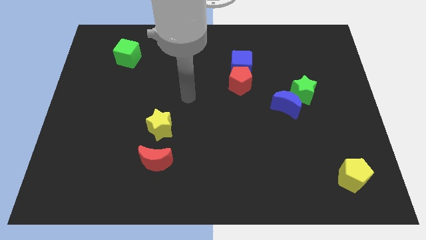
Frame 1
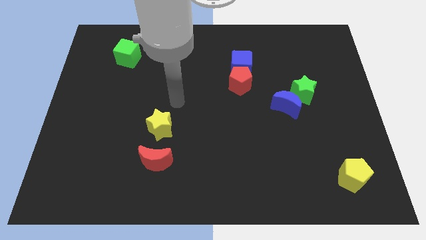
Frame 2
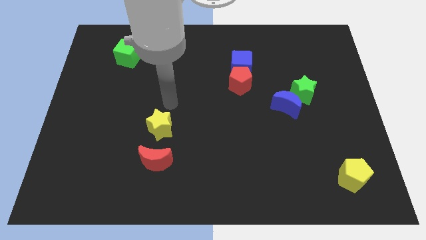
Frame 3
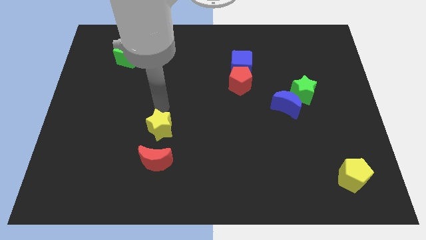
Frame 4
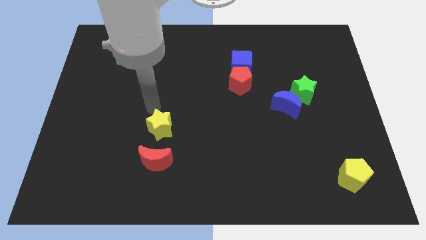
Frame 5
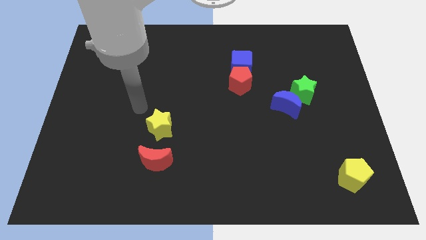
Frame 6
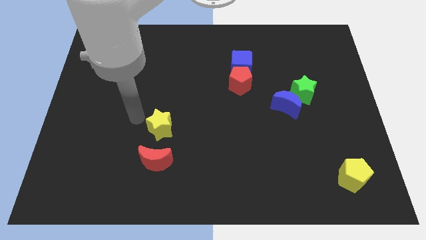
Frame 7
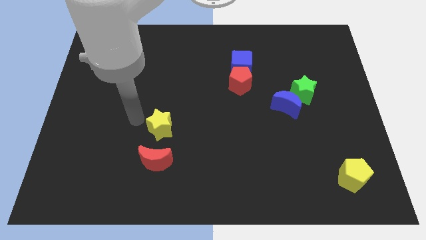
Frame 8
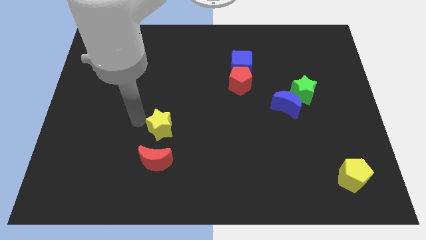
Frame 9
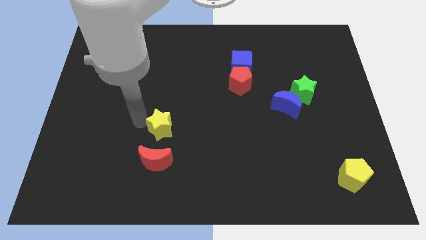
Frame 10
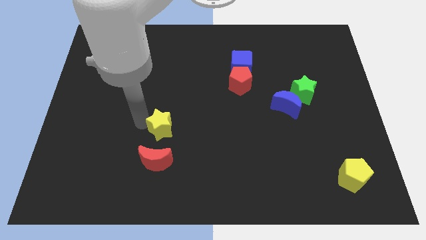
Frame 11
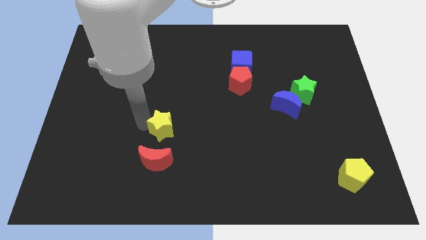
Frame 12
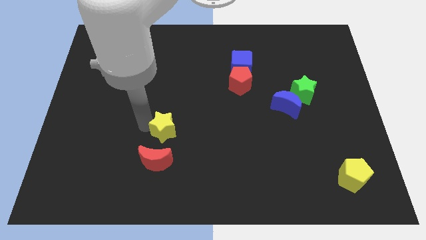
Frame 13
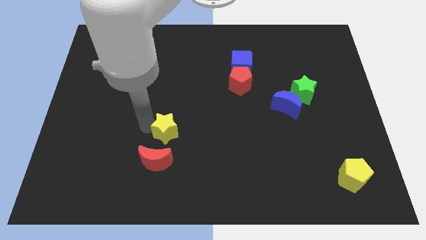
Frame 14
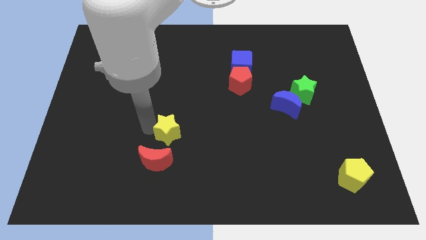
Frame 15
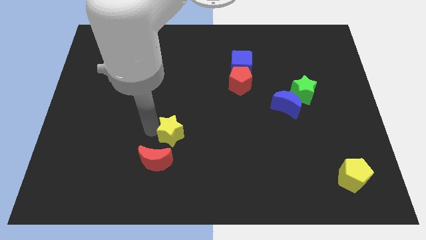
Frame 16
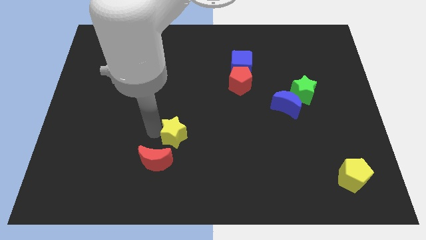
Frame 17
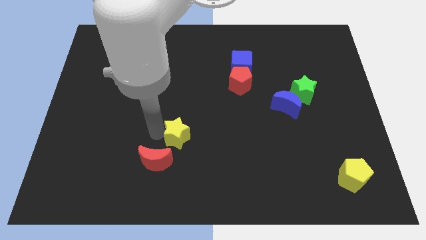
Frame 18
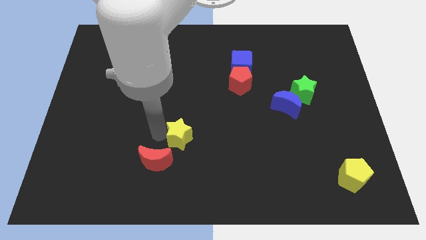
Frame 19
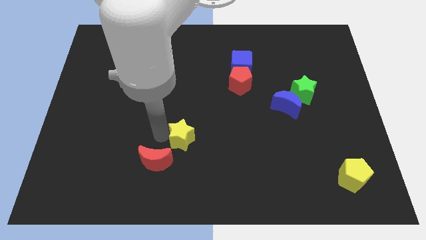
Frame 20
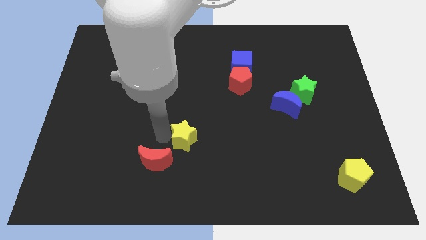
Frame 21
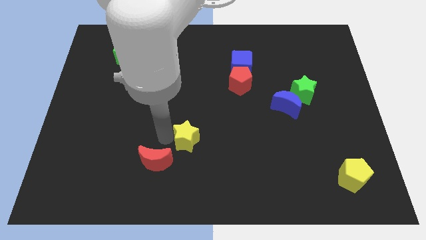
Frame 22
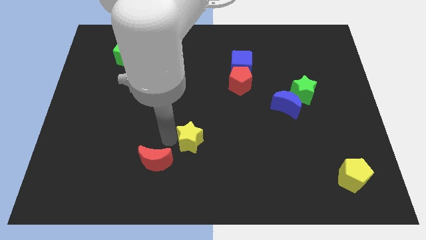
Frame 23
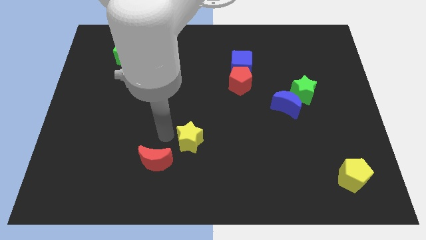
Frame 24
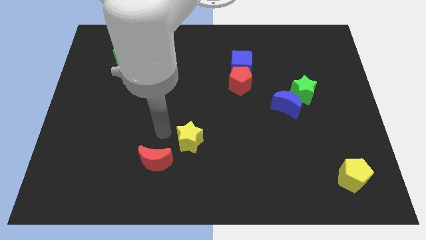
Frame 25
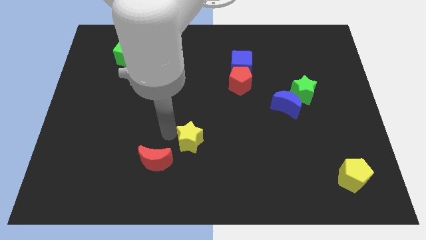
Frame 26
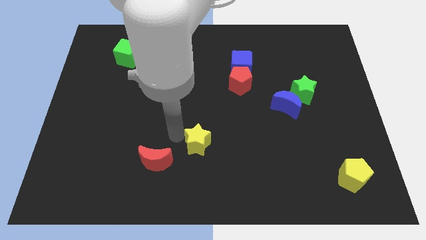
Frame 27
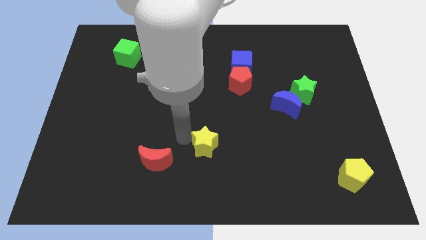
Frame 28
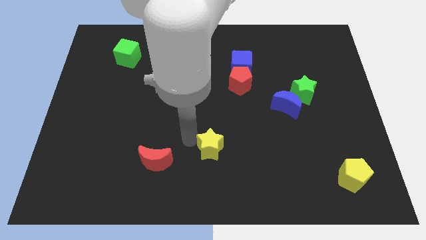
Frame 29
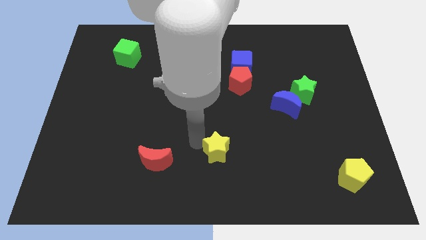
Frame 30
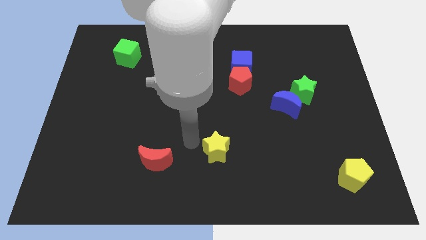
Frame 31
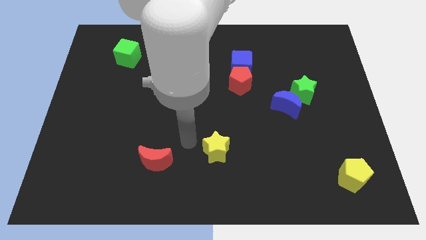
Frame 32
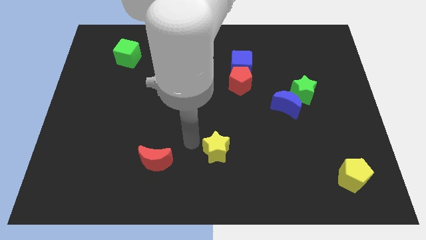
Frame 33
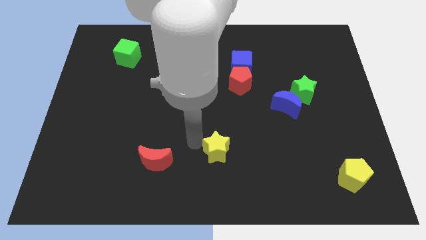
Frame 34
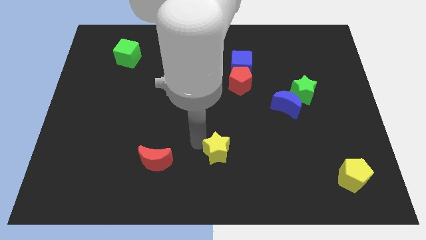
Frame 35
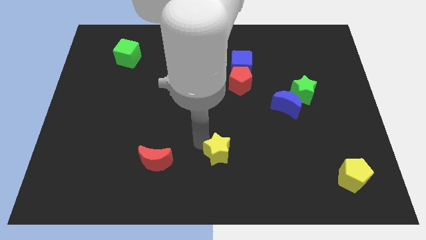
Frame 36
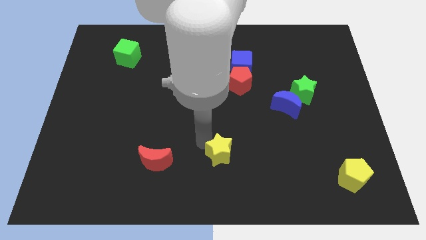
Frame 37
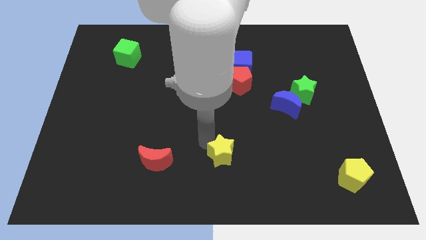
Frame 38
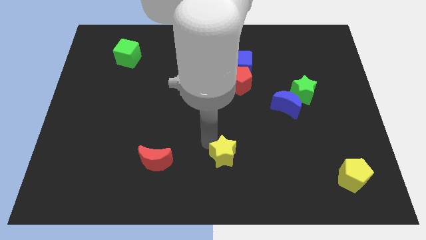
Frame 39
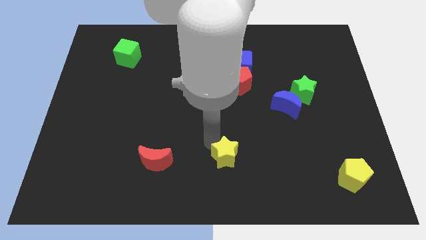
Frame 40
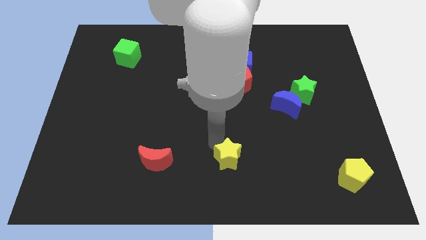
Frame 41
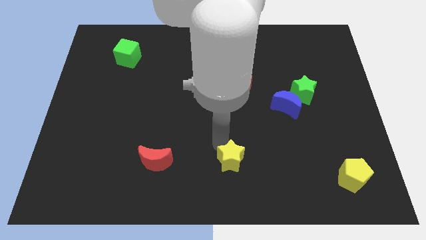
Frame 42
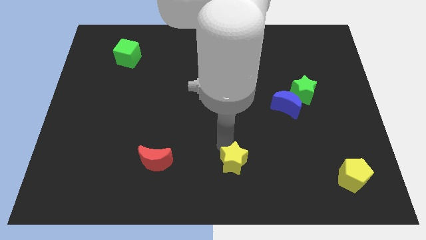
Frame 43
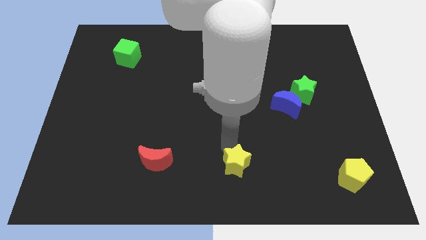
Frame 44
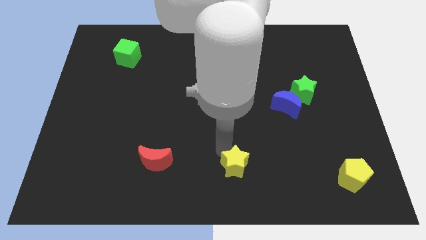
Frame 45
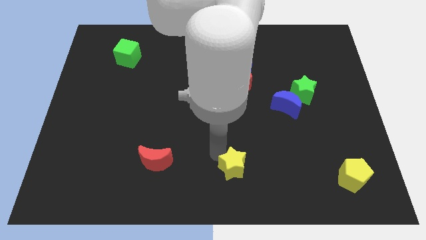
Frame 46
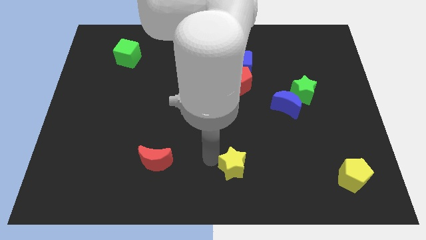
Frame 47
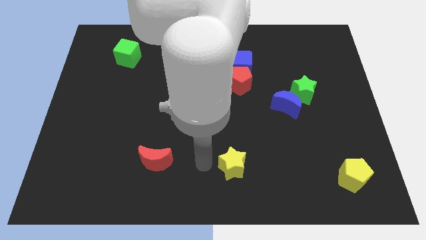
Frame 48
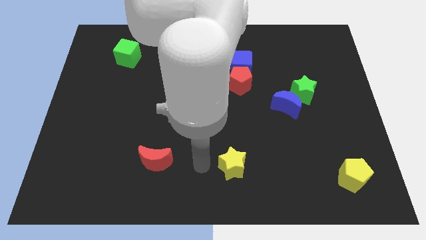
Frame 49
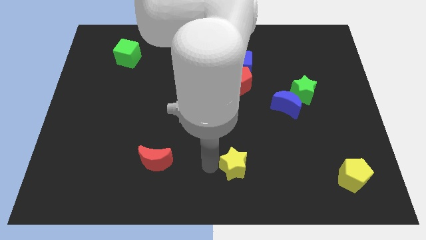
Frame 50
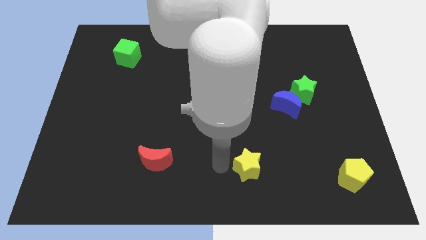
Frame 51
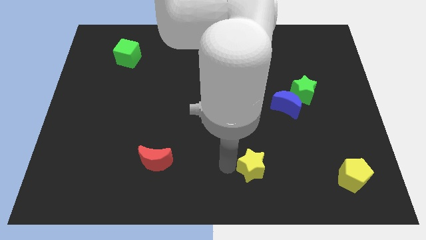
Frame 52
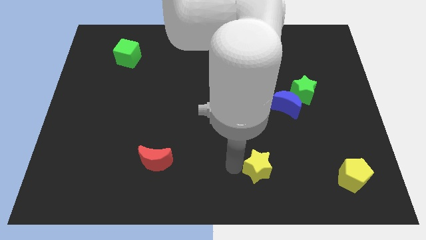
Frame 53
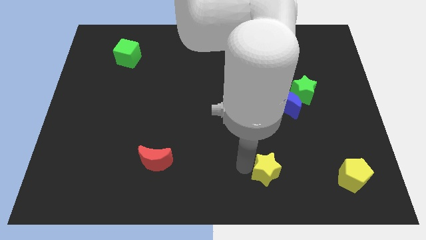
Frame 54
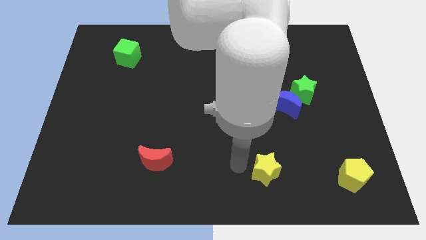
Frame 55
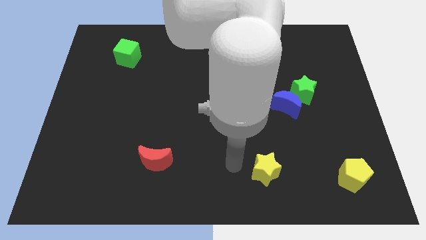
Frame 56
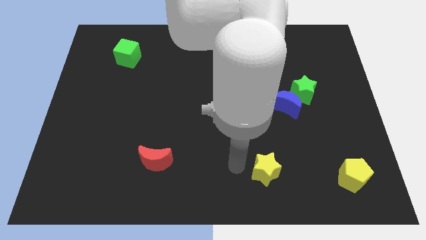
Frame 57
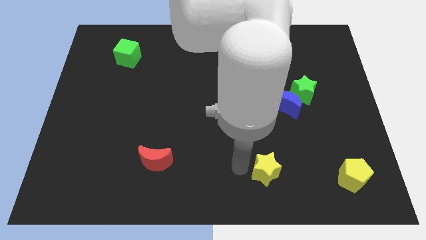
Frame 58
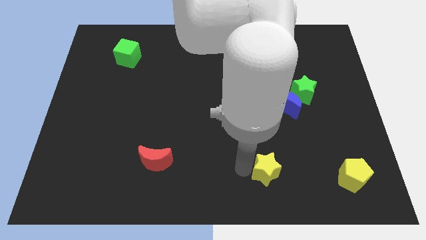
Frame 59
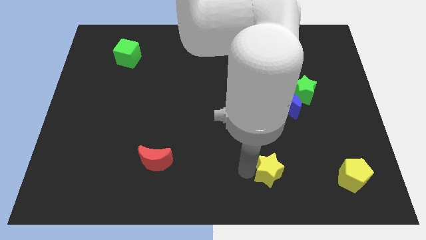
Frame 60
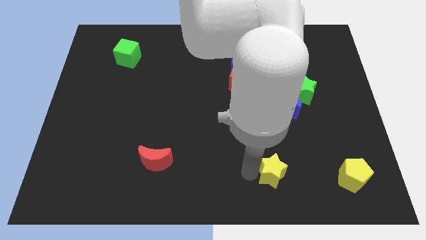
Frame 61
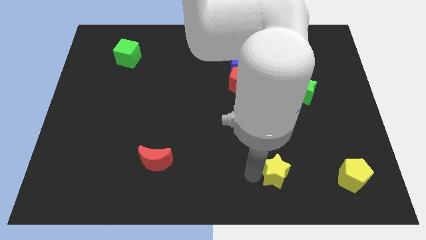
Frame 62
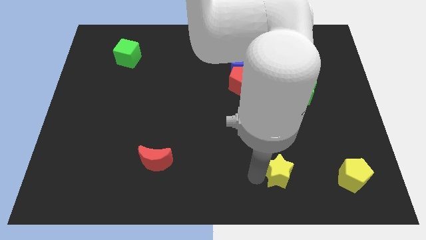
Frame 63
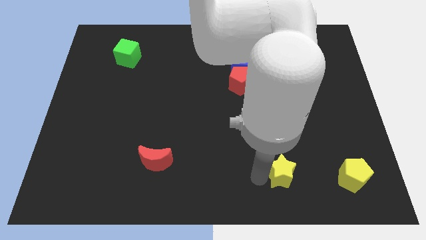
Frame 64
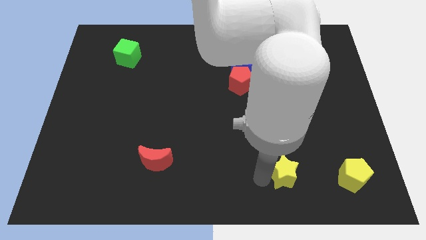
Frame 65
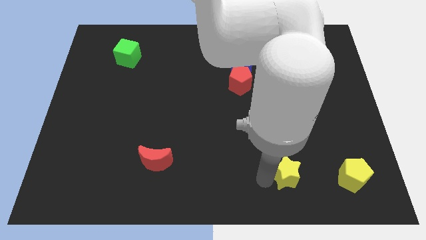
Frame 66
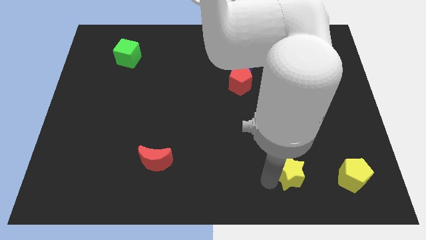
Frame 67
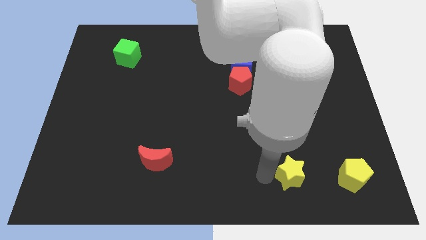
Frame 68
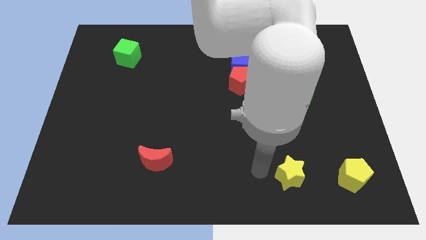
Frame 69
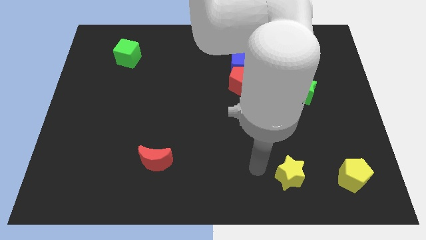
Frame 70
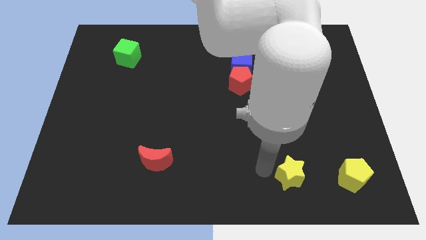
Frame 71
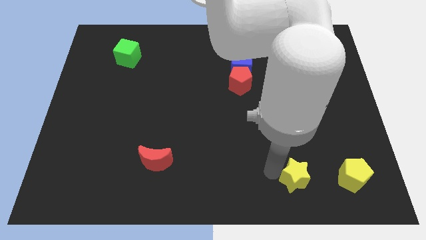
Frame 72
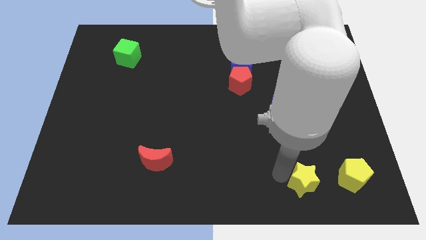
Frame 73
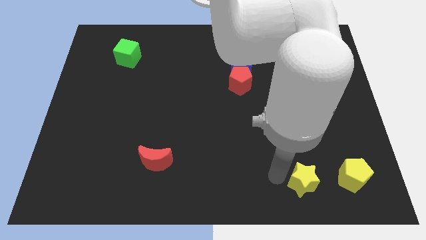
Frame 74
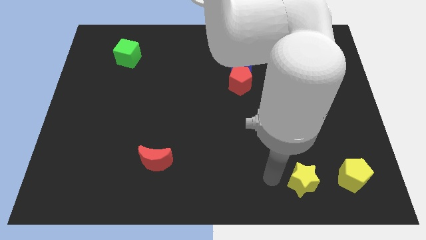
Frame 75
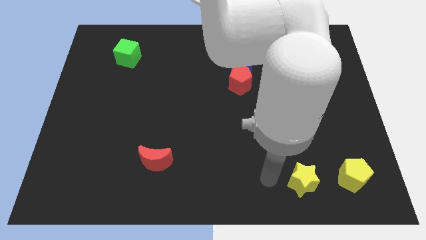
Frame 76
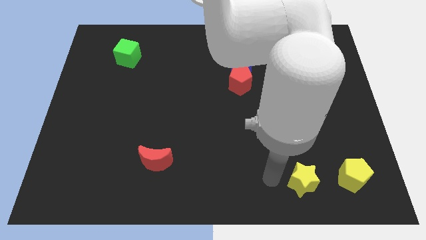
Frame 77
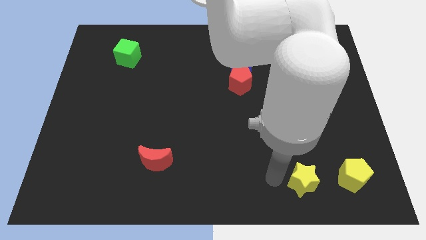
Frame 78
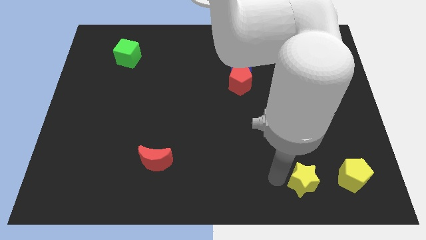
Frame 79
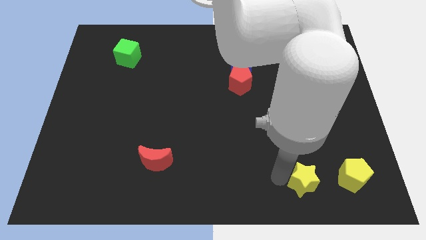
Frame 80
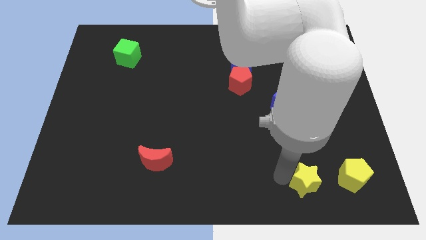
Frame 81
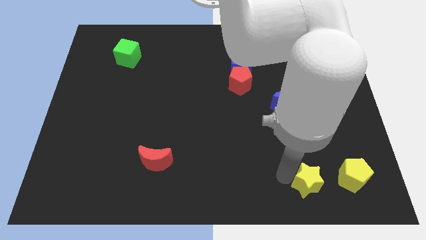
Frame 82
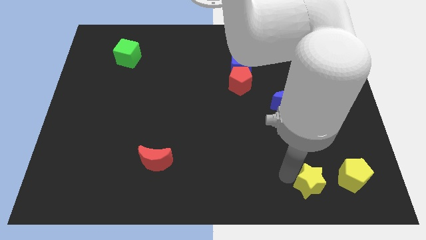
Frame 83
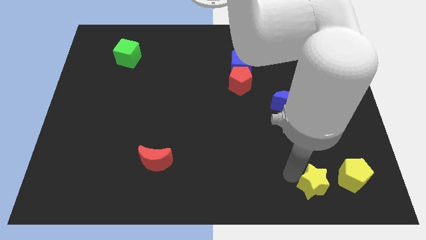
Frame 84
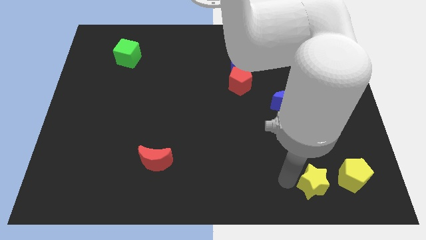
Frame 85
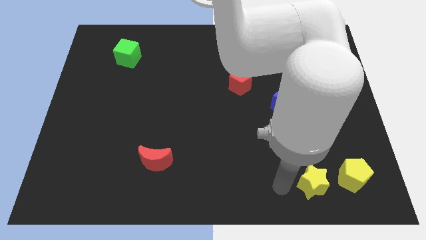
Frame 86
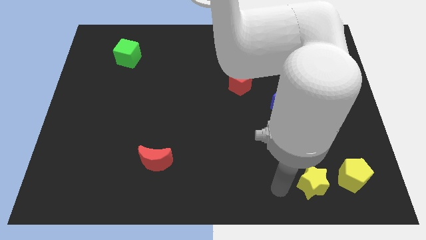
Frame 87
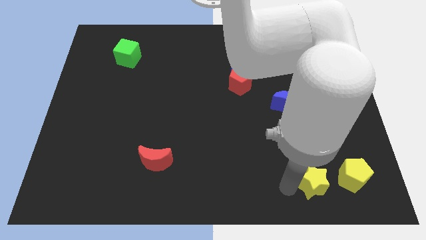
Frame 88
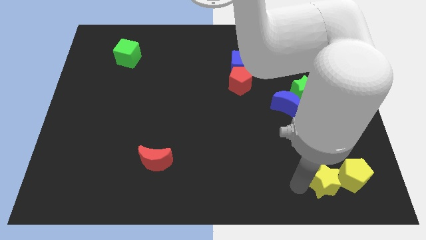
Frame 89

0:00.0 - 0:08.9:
push the yellow star next to the yellow pentagon
